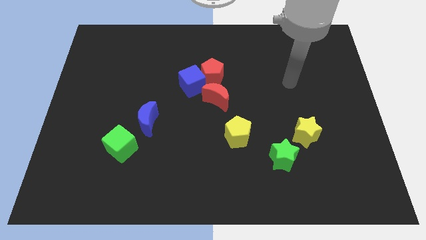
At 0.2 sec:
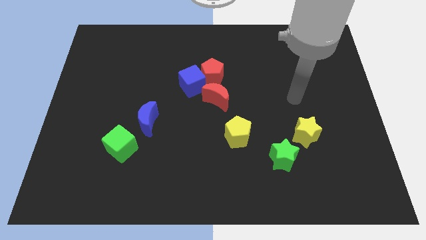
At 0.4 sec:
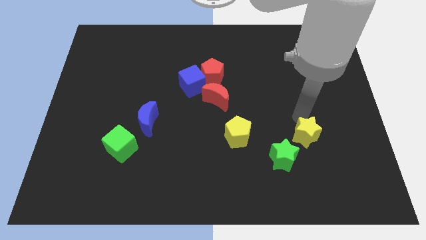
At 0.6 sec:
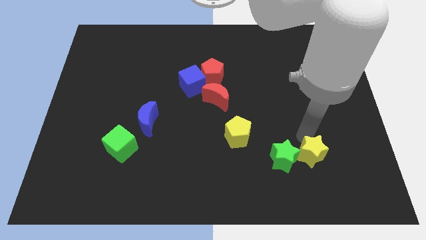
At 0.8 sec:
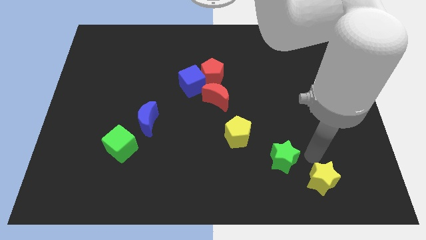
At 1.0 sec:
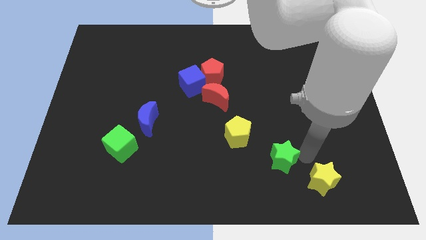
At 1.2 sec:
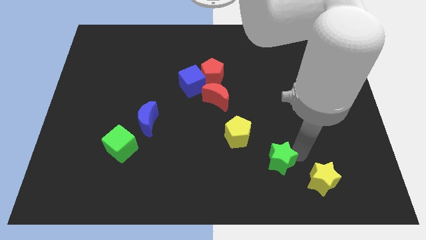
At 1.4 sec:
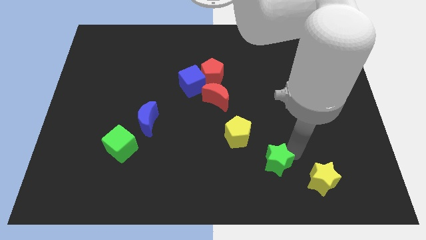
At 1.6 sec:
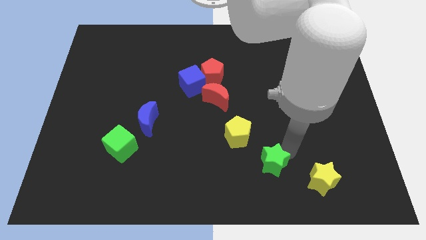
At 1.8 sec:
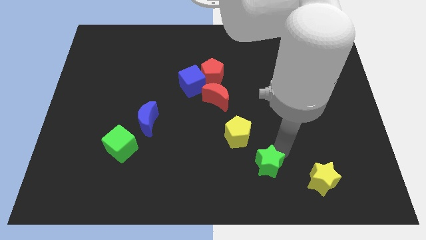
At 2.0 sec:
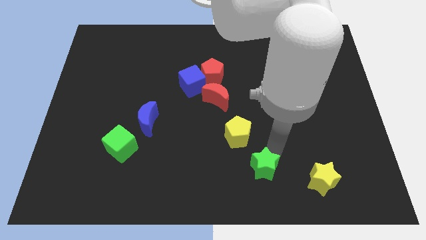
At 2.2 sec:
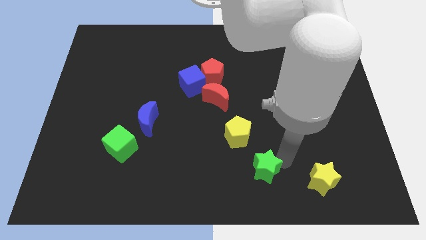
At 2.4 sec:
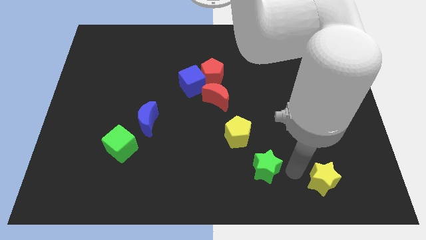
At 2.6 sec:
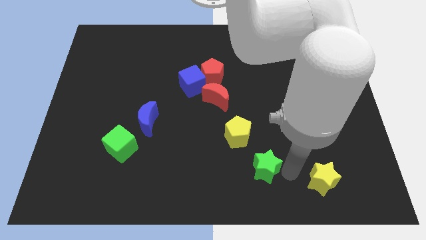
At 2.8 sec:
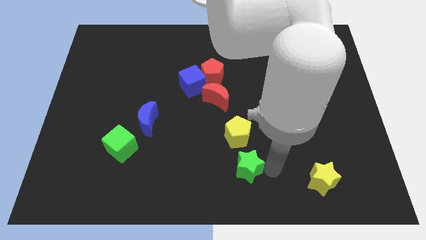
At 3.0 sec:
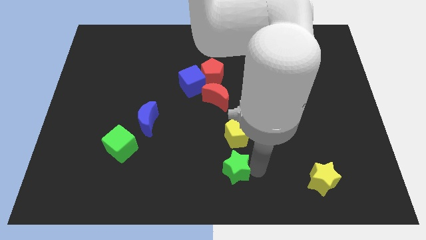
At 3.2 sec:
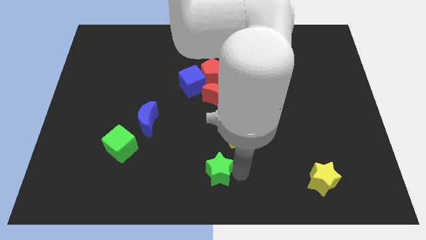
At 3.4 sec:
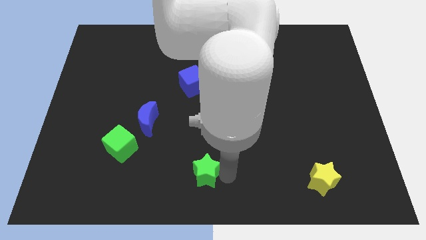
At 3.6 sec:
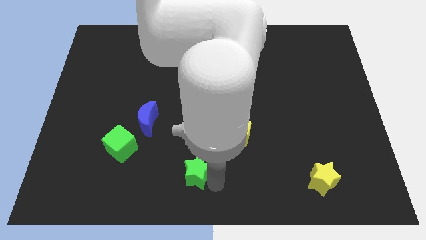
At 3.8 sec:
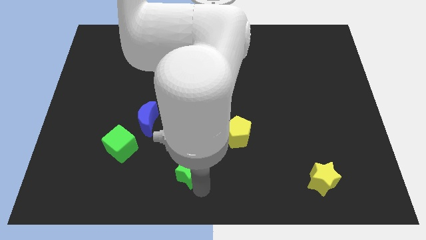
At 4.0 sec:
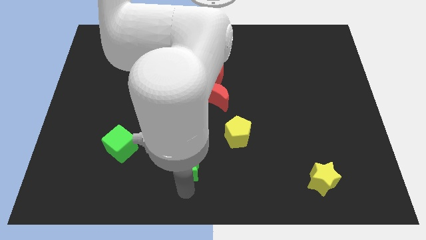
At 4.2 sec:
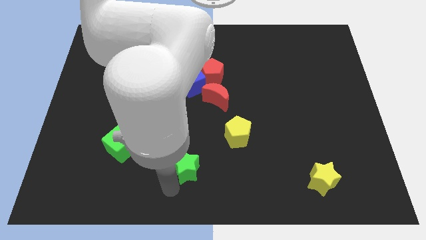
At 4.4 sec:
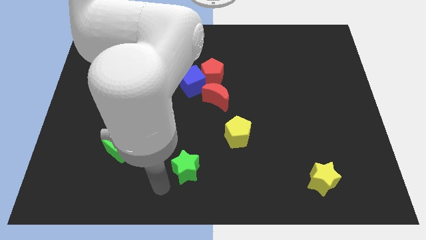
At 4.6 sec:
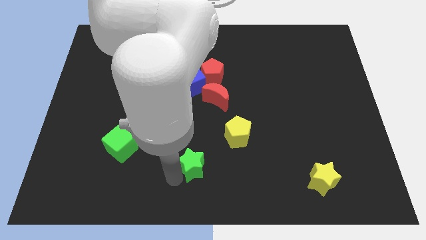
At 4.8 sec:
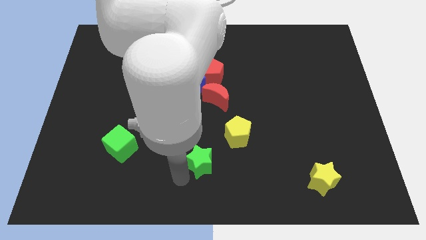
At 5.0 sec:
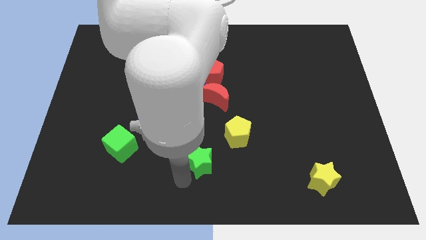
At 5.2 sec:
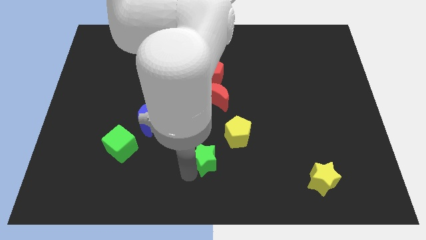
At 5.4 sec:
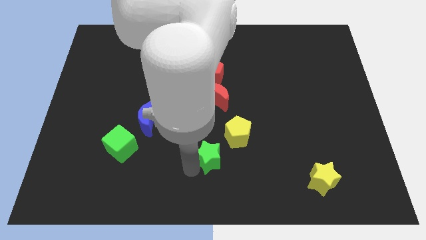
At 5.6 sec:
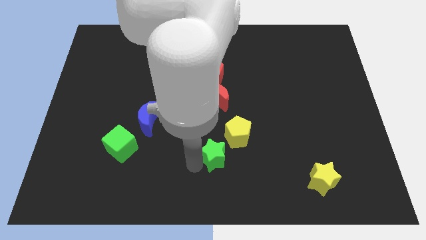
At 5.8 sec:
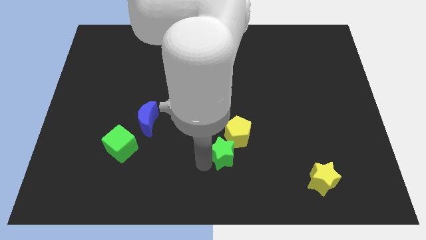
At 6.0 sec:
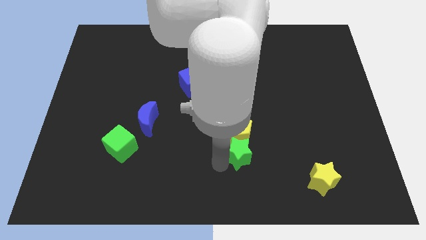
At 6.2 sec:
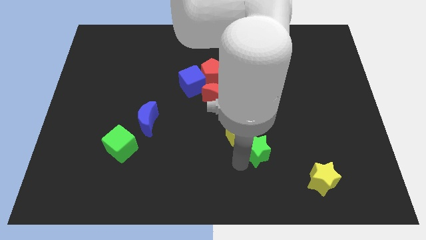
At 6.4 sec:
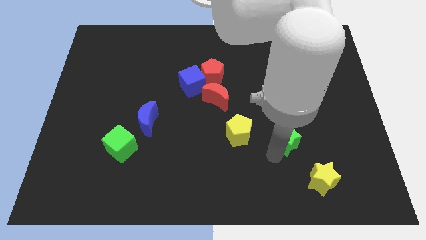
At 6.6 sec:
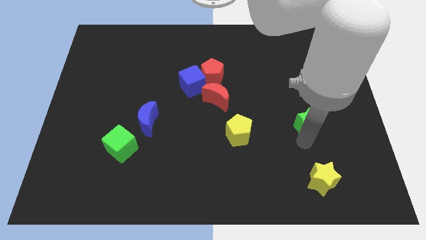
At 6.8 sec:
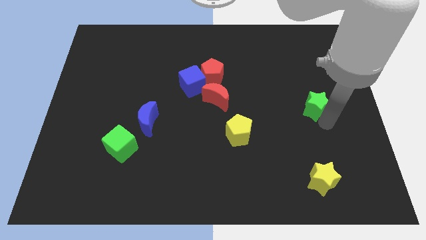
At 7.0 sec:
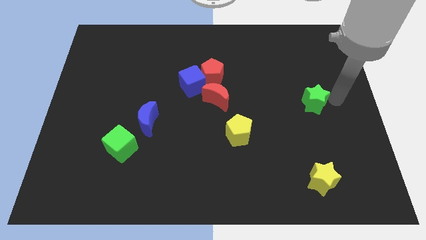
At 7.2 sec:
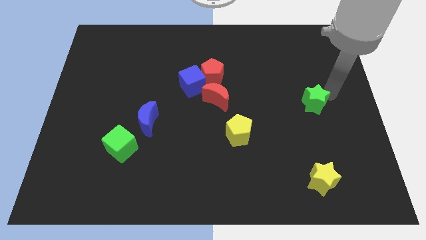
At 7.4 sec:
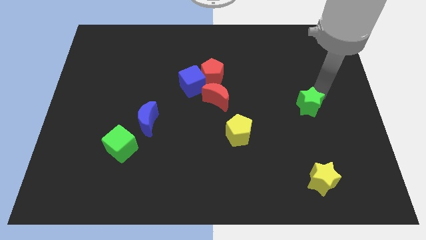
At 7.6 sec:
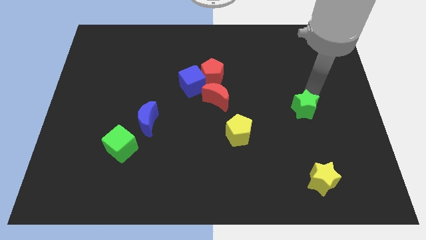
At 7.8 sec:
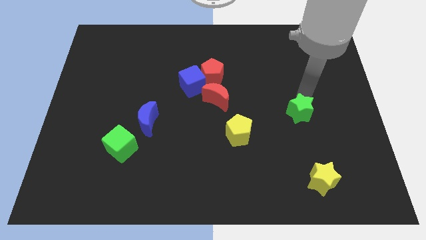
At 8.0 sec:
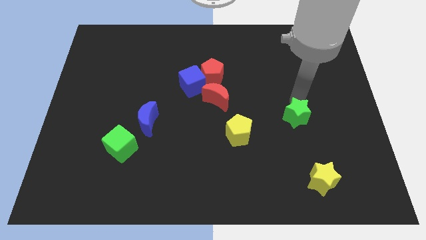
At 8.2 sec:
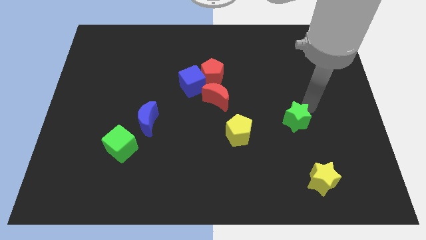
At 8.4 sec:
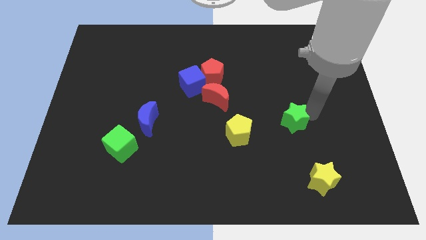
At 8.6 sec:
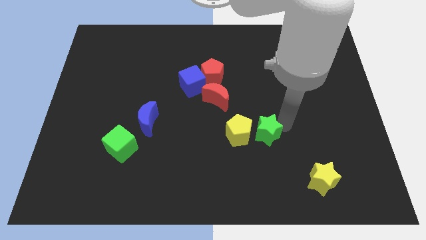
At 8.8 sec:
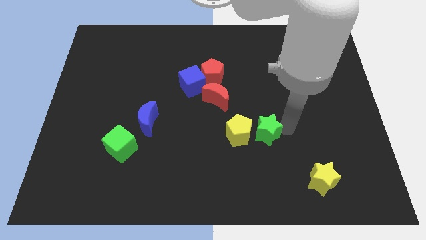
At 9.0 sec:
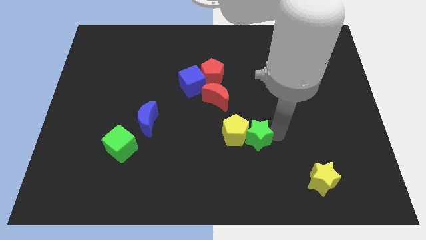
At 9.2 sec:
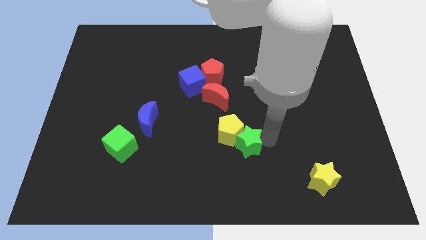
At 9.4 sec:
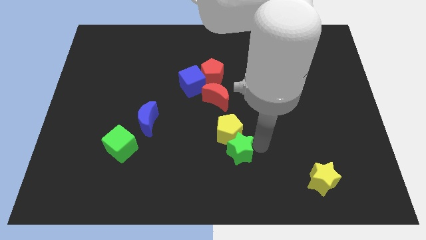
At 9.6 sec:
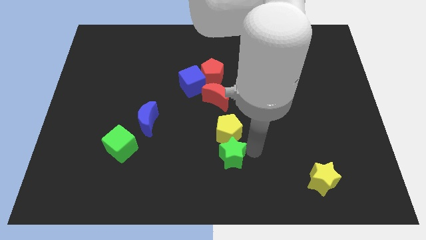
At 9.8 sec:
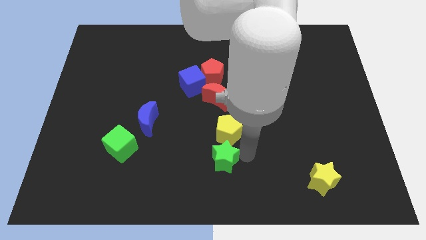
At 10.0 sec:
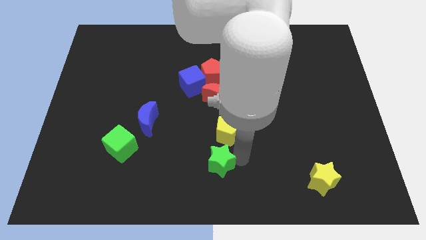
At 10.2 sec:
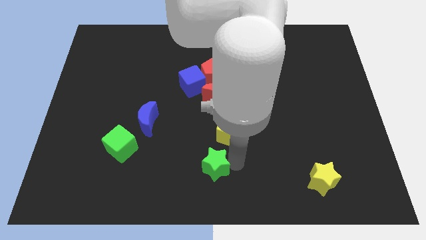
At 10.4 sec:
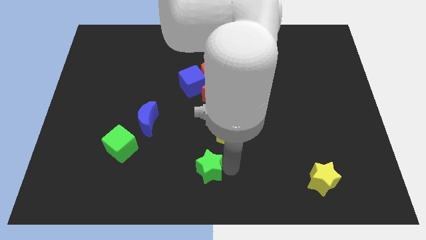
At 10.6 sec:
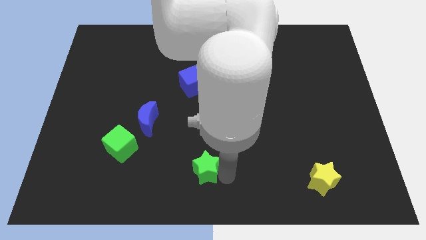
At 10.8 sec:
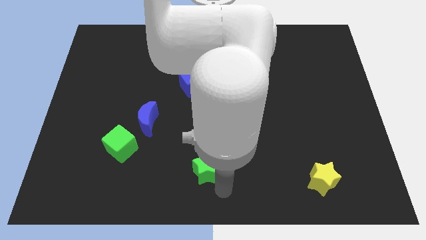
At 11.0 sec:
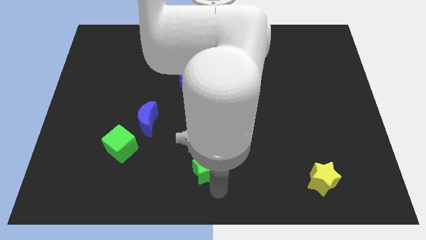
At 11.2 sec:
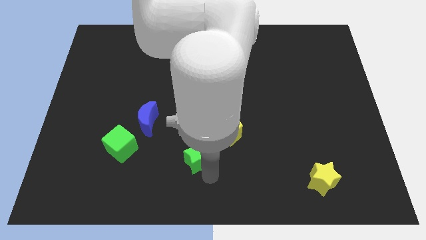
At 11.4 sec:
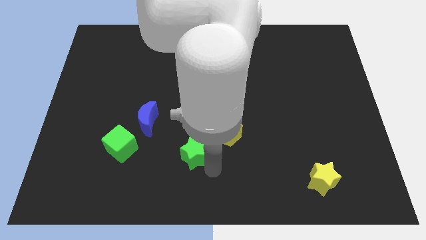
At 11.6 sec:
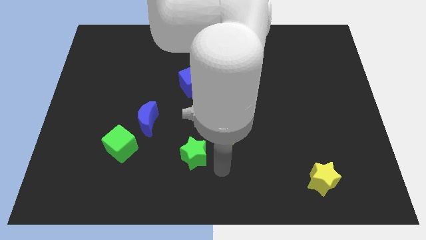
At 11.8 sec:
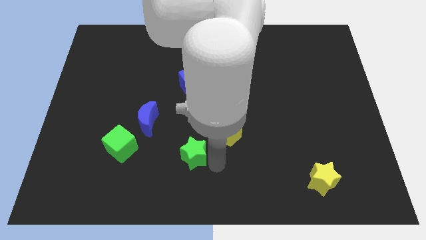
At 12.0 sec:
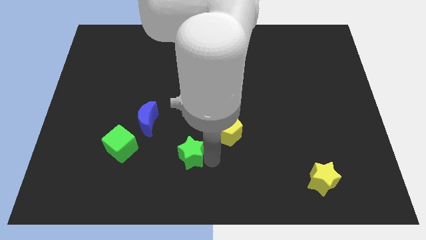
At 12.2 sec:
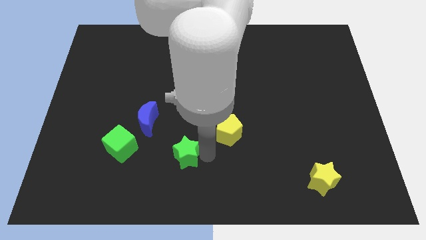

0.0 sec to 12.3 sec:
put the green star diagonally down and to the right of the blue moon

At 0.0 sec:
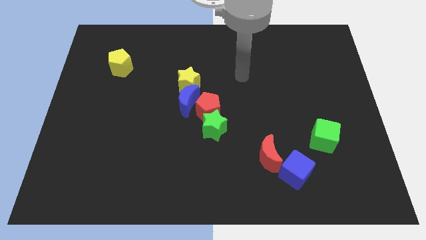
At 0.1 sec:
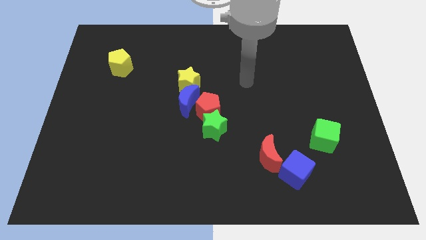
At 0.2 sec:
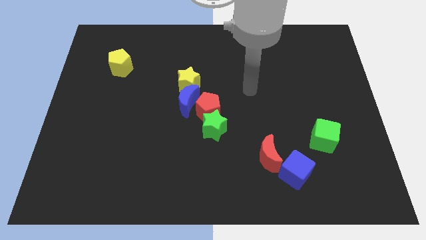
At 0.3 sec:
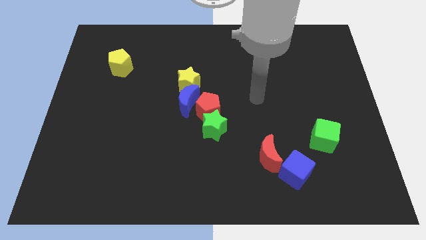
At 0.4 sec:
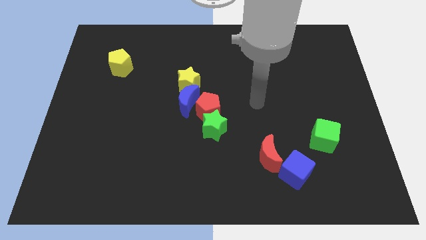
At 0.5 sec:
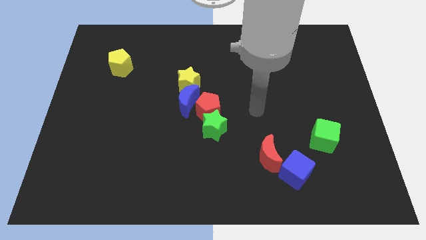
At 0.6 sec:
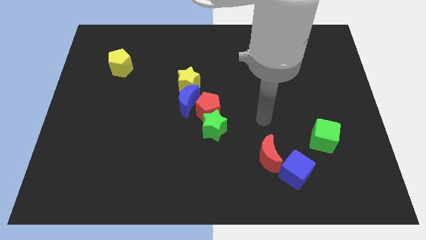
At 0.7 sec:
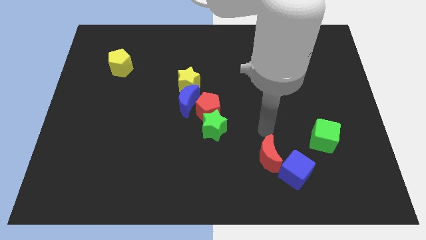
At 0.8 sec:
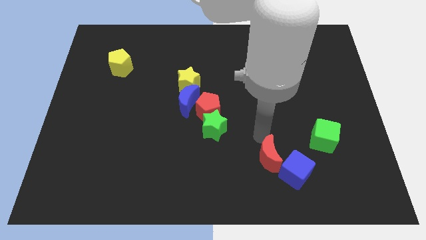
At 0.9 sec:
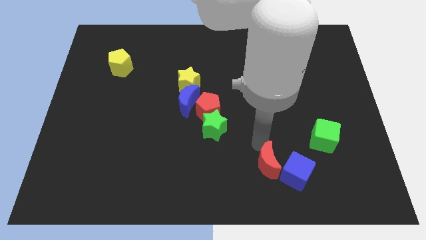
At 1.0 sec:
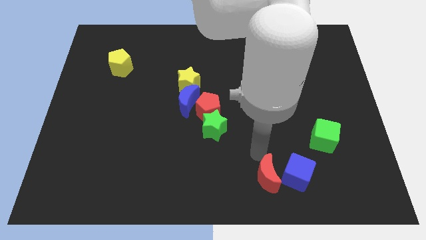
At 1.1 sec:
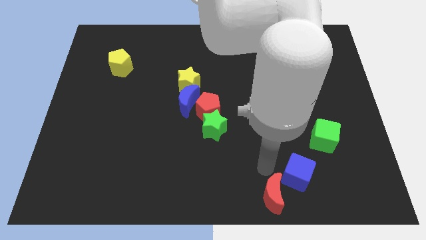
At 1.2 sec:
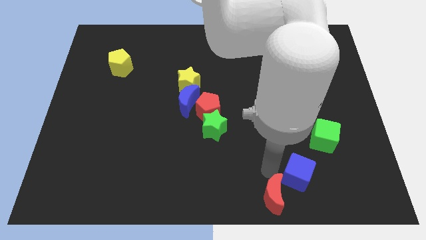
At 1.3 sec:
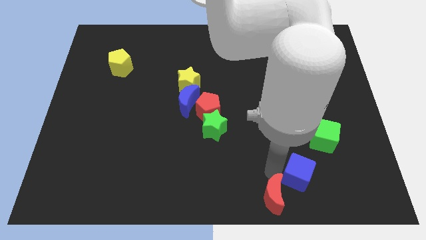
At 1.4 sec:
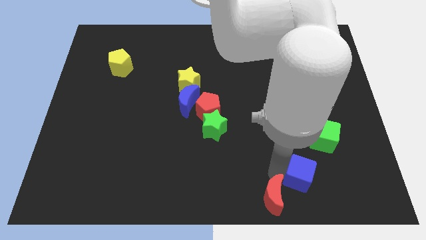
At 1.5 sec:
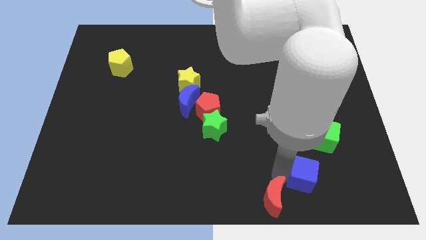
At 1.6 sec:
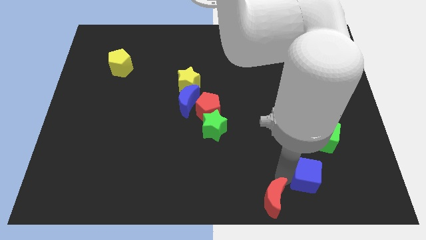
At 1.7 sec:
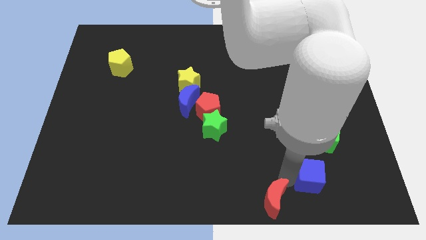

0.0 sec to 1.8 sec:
push the blue cube to the bottom side of the green cube
